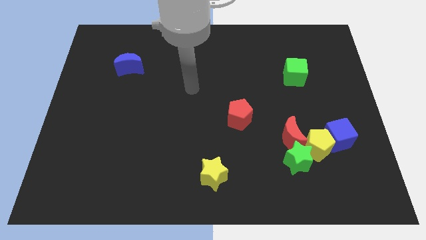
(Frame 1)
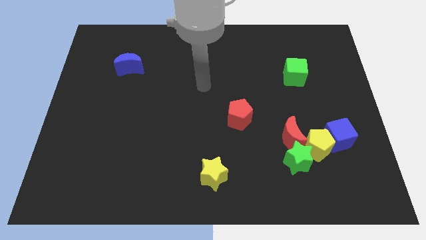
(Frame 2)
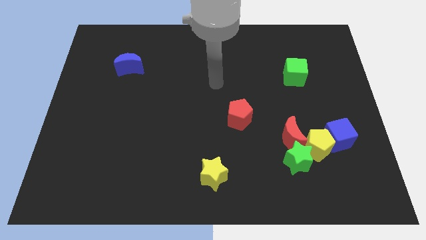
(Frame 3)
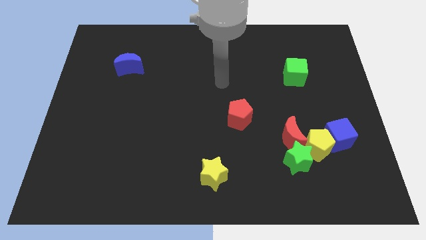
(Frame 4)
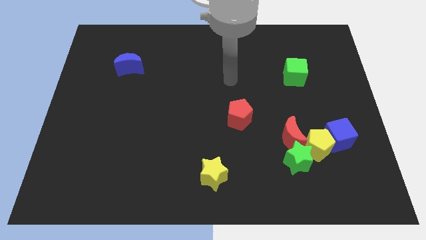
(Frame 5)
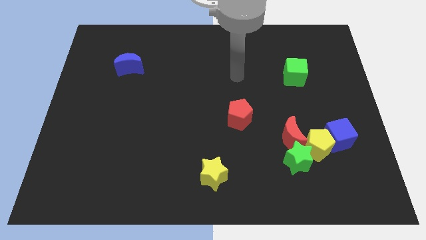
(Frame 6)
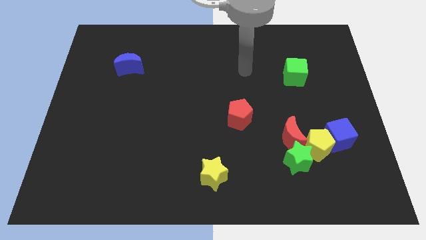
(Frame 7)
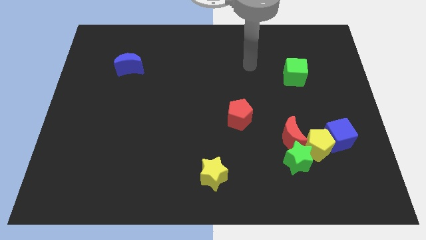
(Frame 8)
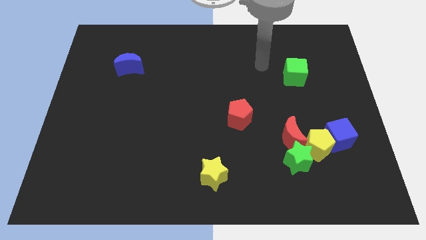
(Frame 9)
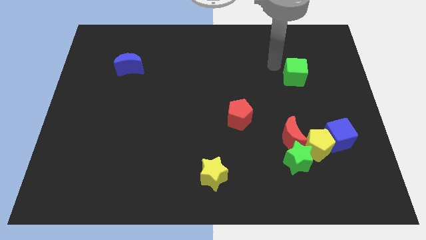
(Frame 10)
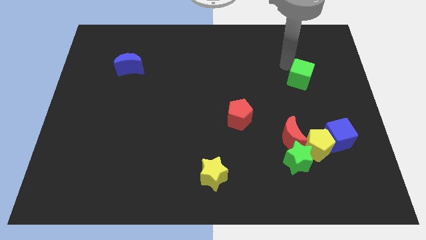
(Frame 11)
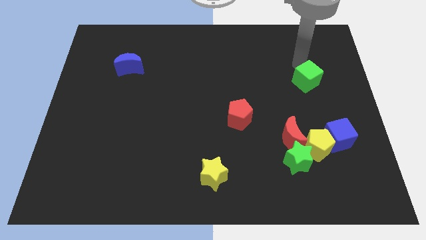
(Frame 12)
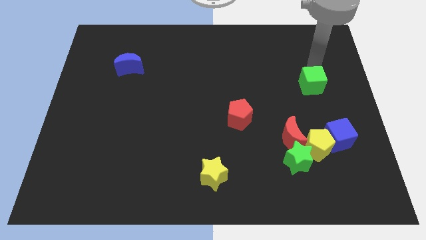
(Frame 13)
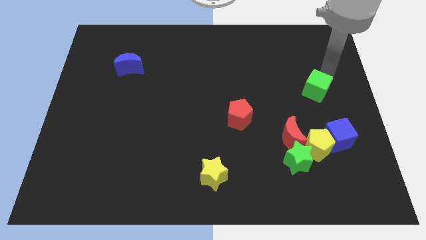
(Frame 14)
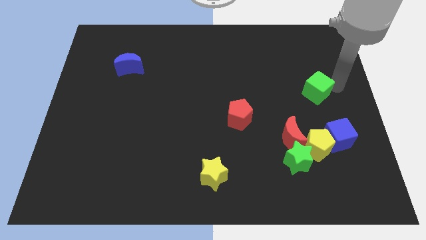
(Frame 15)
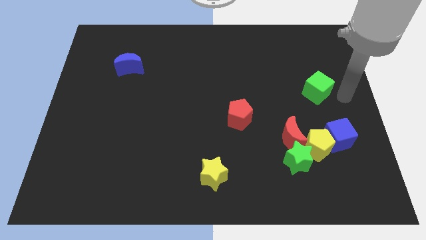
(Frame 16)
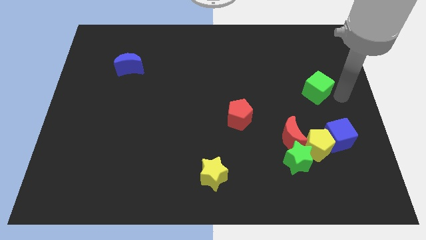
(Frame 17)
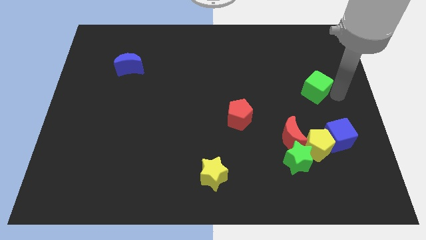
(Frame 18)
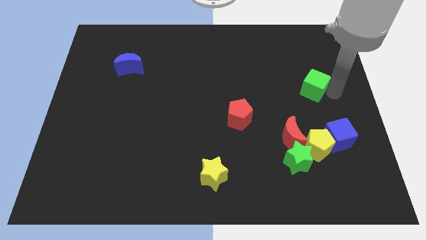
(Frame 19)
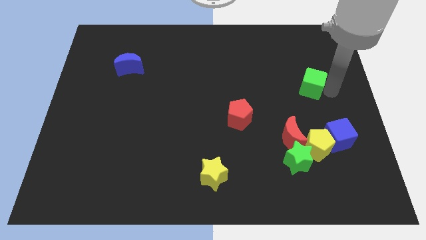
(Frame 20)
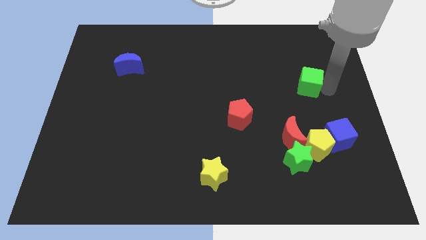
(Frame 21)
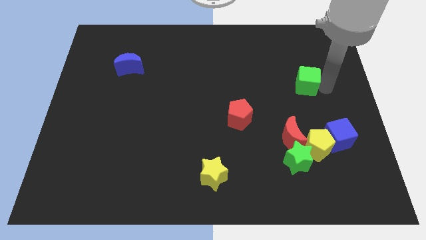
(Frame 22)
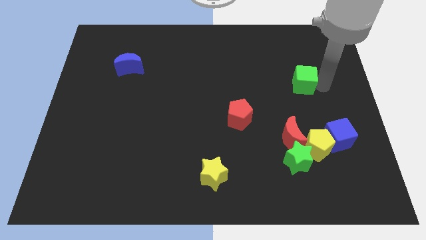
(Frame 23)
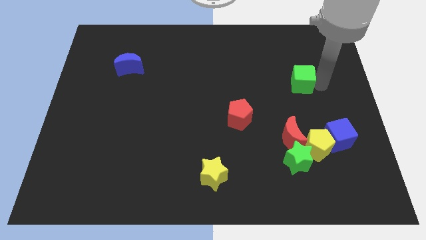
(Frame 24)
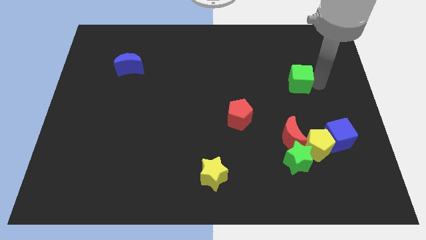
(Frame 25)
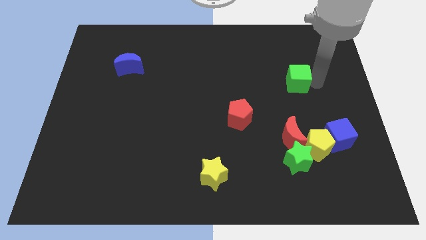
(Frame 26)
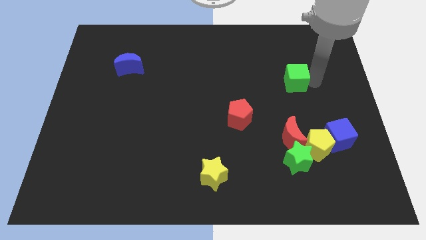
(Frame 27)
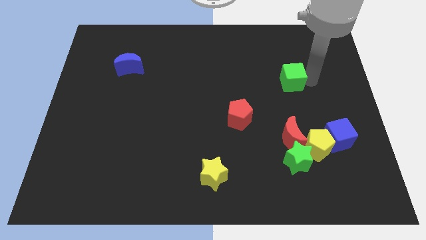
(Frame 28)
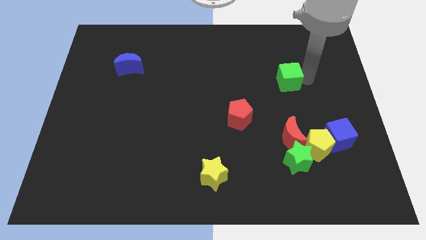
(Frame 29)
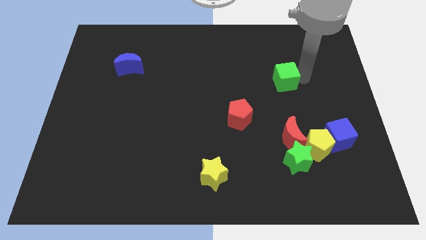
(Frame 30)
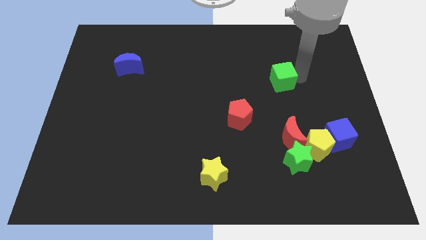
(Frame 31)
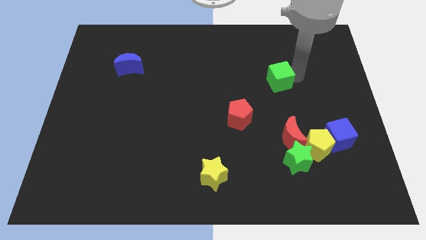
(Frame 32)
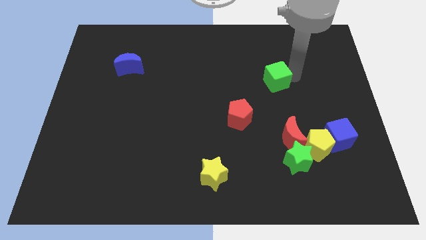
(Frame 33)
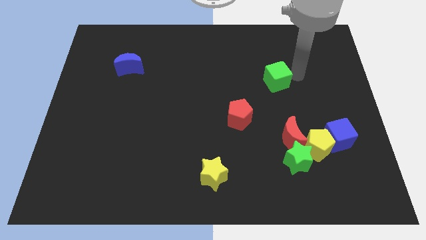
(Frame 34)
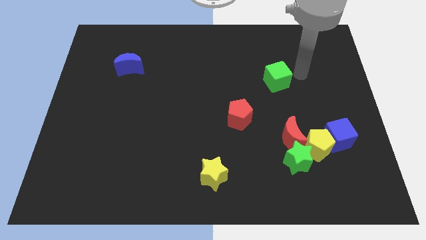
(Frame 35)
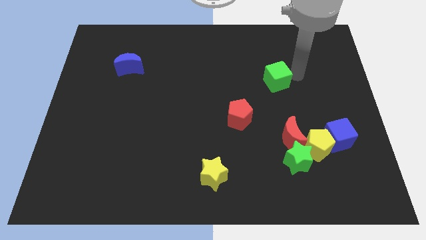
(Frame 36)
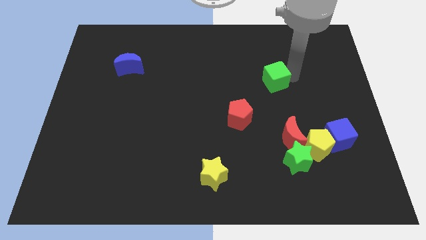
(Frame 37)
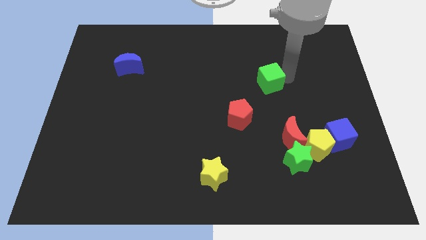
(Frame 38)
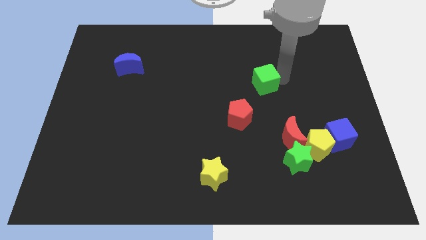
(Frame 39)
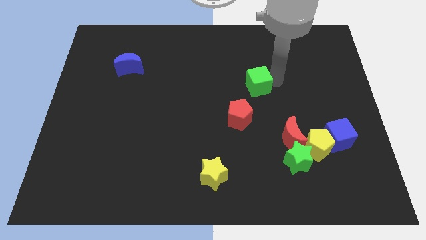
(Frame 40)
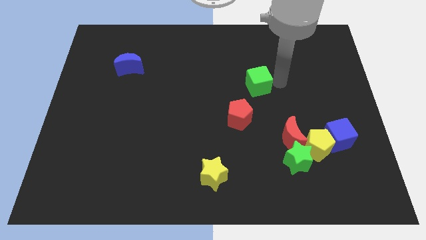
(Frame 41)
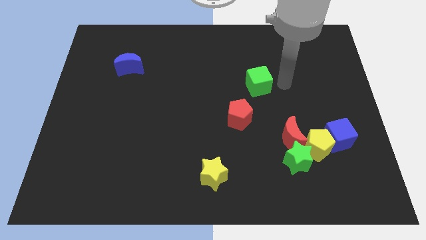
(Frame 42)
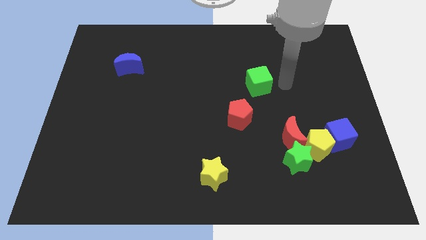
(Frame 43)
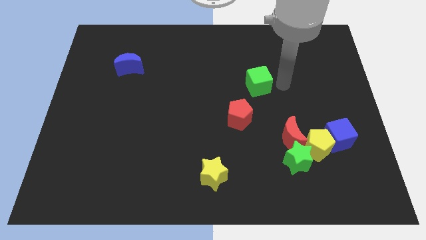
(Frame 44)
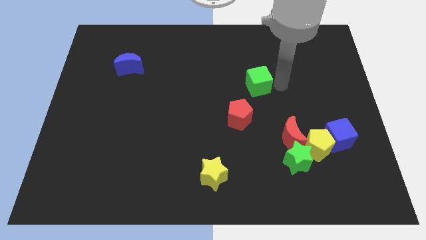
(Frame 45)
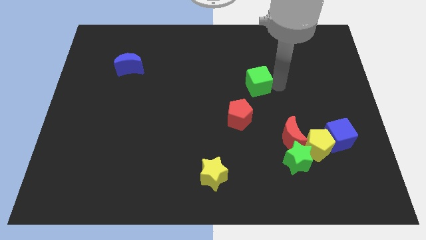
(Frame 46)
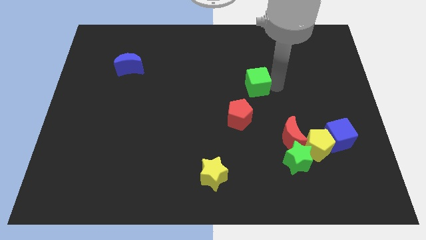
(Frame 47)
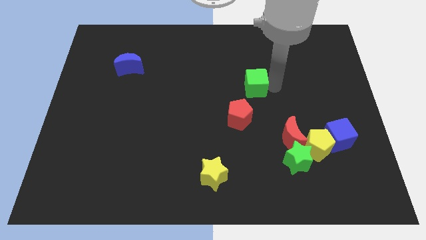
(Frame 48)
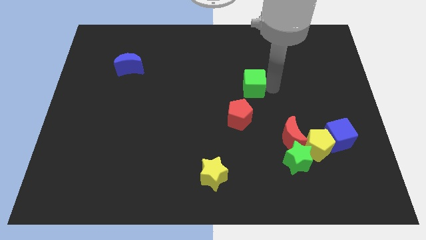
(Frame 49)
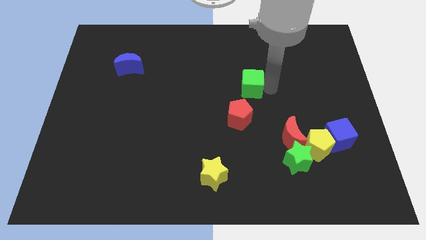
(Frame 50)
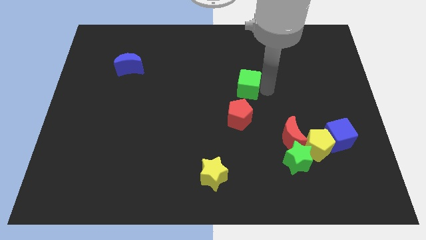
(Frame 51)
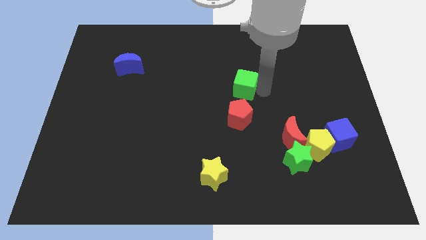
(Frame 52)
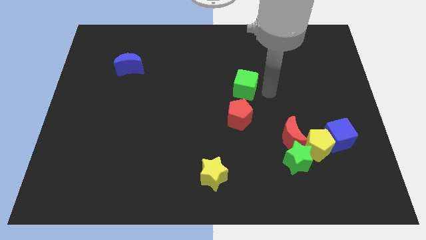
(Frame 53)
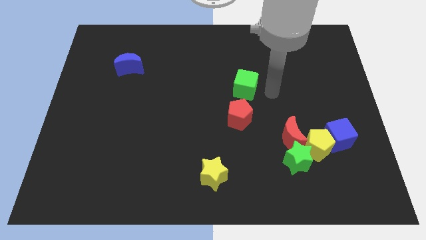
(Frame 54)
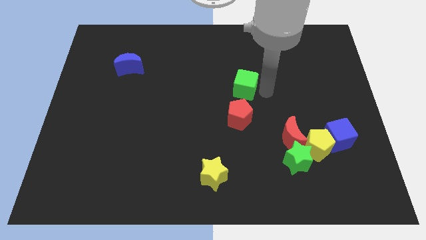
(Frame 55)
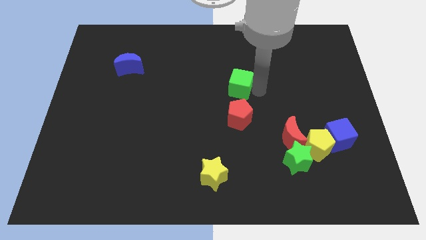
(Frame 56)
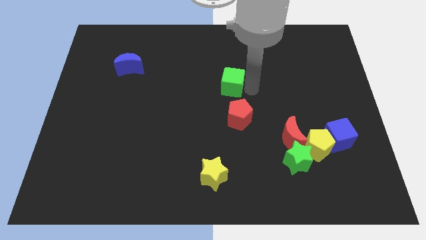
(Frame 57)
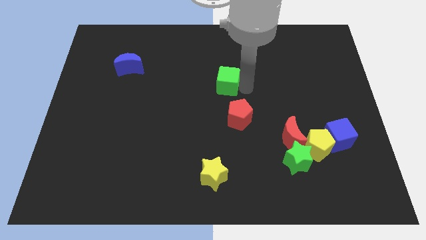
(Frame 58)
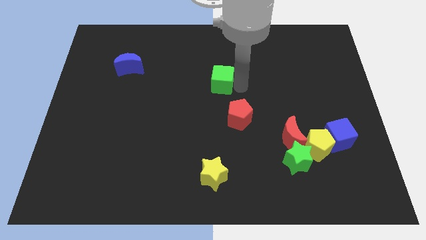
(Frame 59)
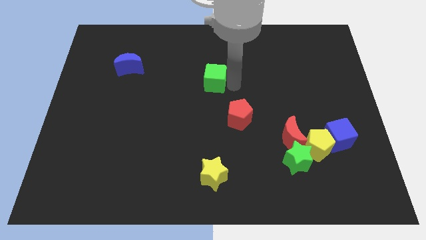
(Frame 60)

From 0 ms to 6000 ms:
slide the green cube to the left

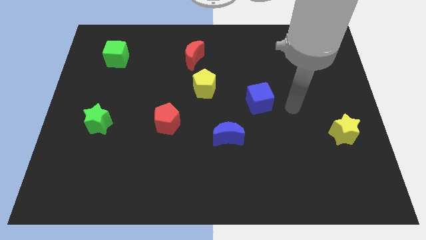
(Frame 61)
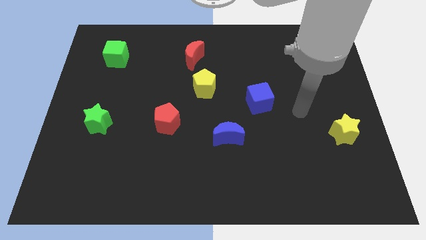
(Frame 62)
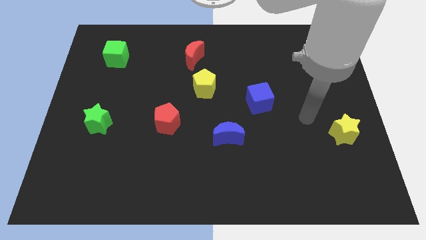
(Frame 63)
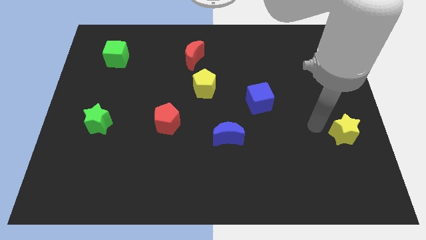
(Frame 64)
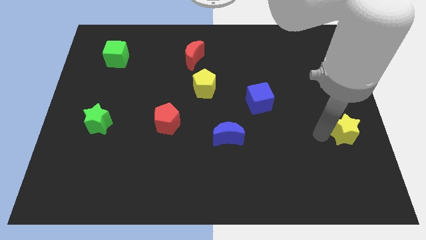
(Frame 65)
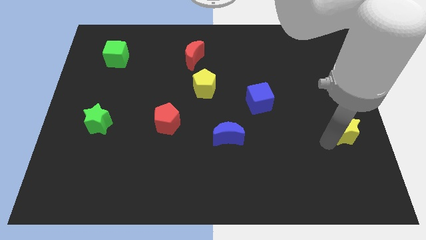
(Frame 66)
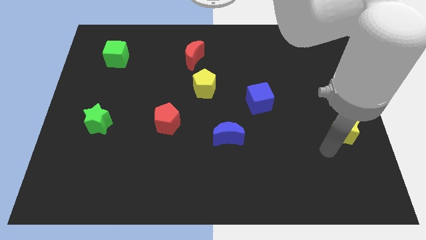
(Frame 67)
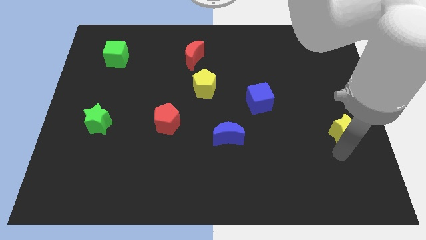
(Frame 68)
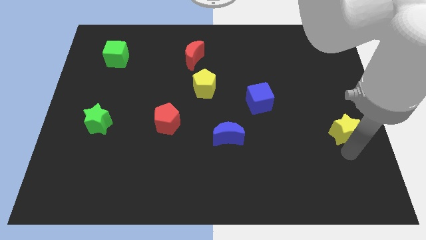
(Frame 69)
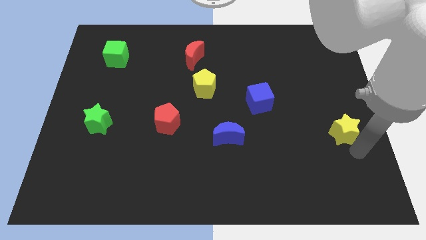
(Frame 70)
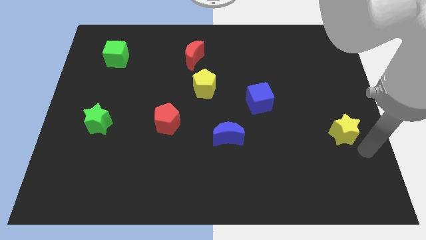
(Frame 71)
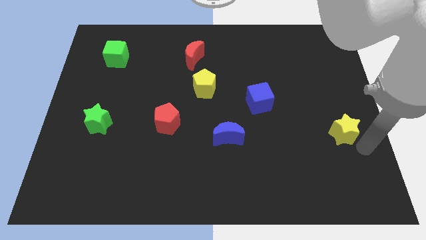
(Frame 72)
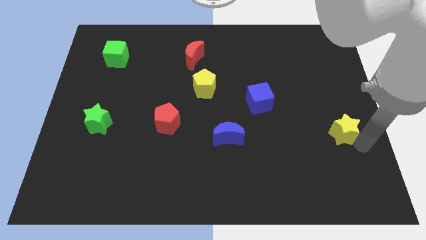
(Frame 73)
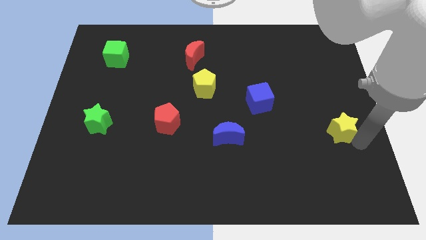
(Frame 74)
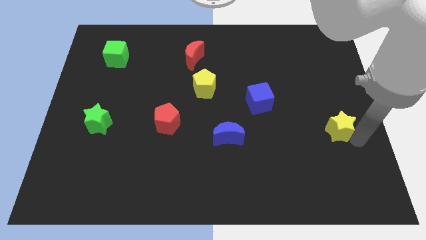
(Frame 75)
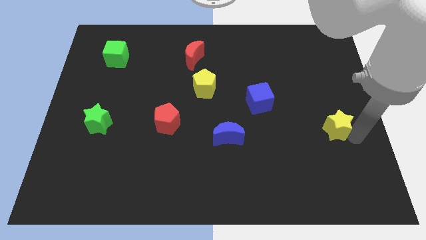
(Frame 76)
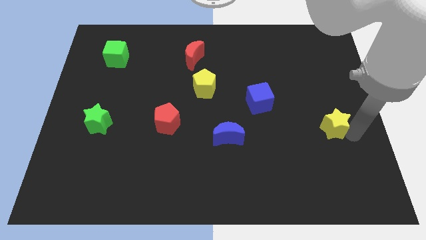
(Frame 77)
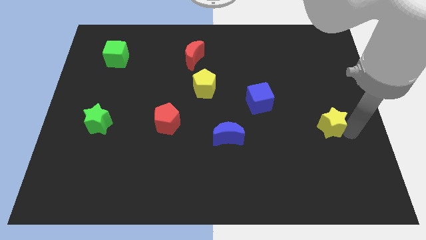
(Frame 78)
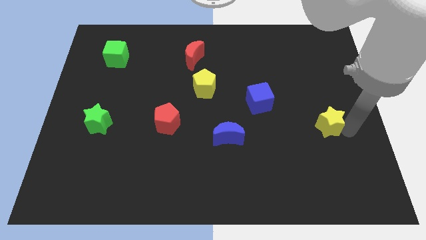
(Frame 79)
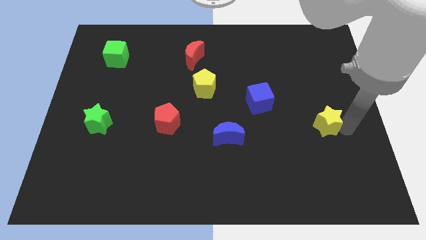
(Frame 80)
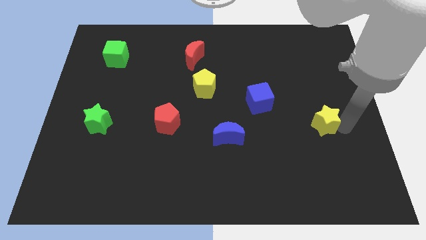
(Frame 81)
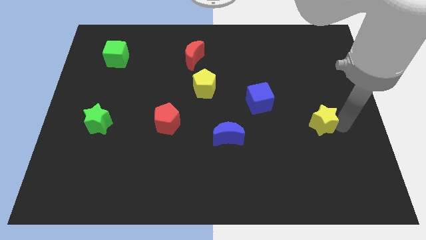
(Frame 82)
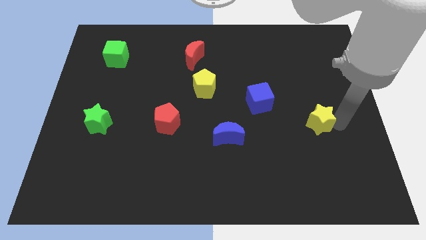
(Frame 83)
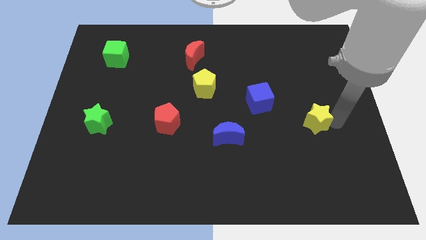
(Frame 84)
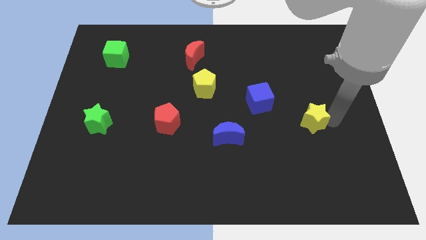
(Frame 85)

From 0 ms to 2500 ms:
slightly move the yellow star diagonally upwards and to the left
